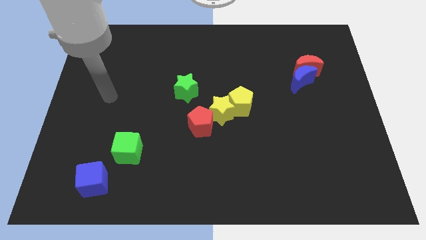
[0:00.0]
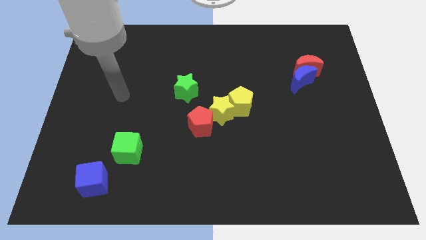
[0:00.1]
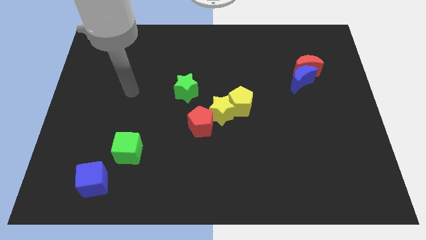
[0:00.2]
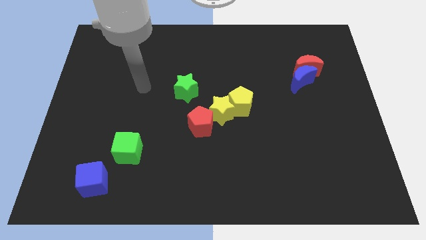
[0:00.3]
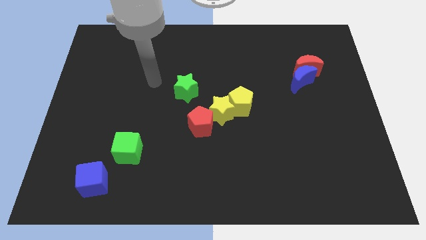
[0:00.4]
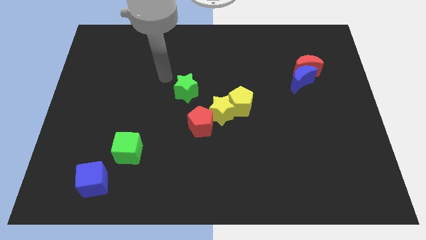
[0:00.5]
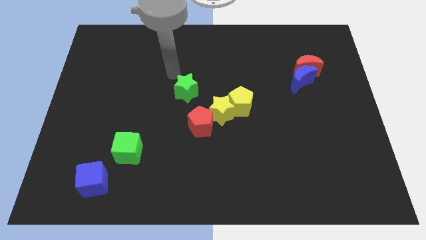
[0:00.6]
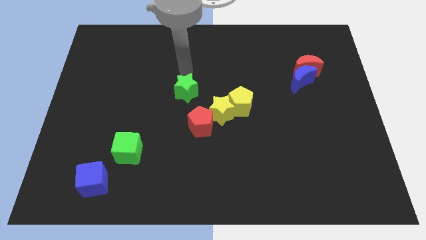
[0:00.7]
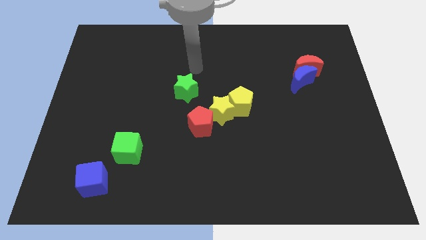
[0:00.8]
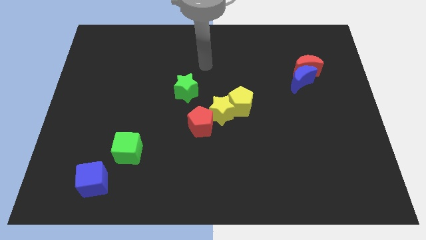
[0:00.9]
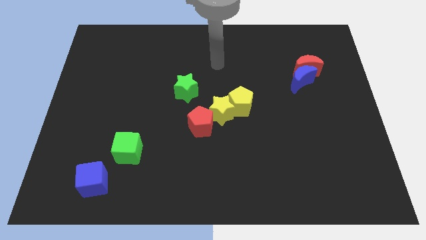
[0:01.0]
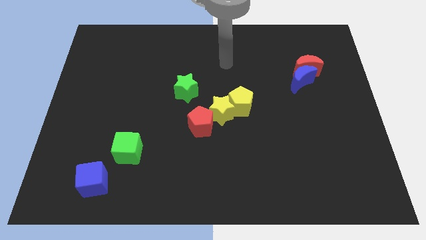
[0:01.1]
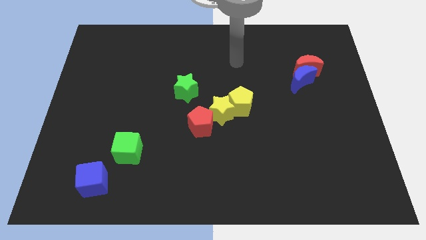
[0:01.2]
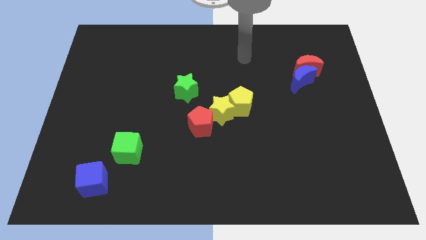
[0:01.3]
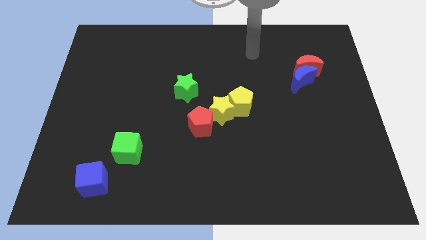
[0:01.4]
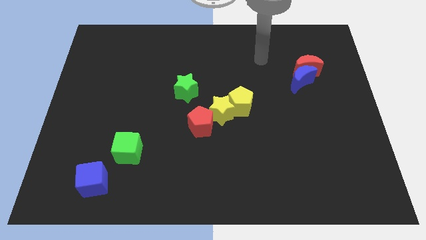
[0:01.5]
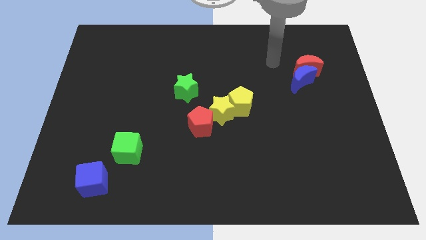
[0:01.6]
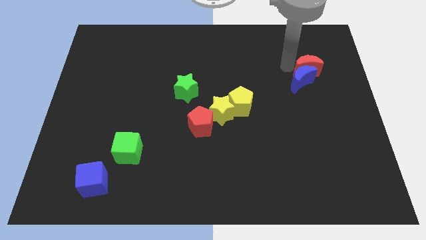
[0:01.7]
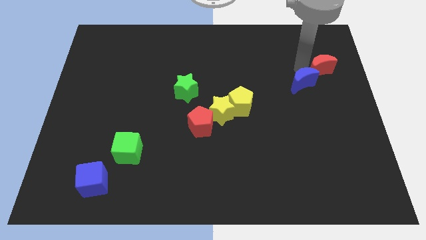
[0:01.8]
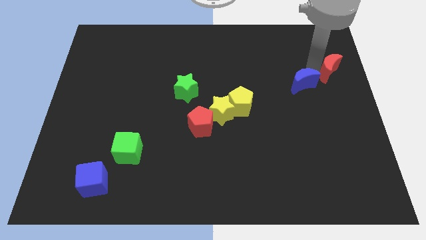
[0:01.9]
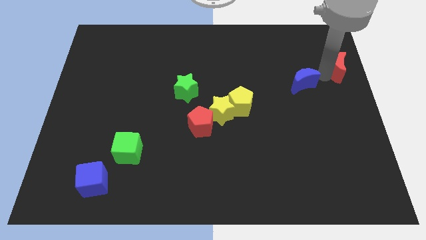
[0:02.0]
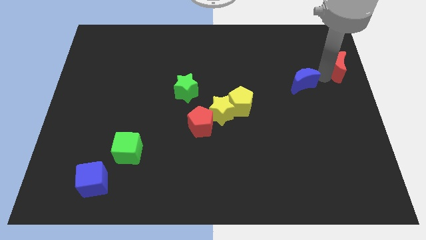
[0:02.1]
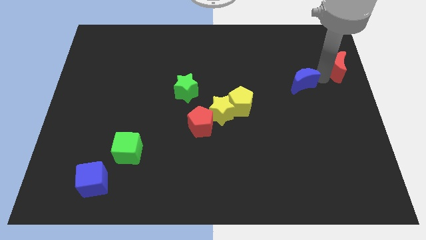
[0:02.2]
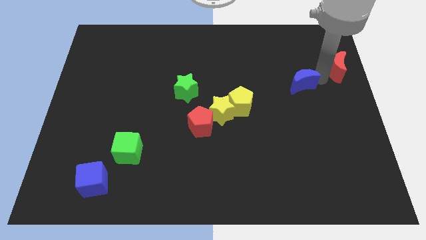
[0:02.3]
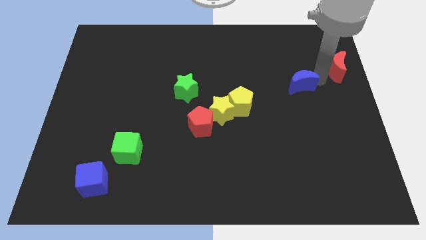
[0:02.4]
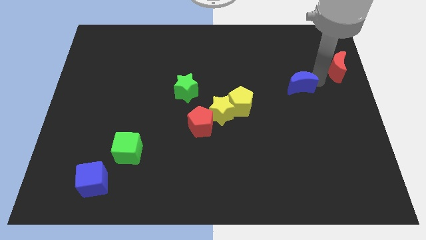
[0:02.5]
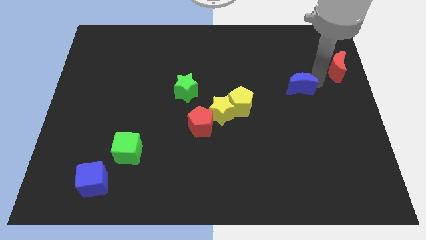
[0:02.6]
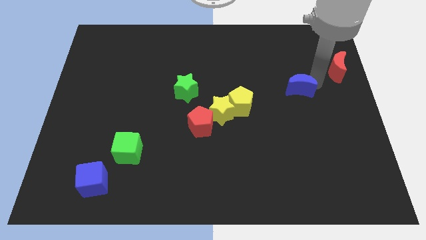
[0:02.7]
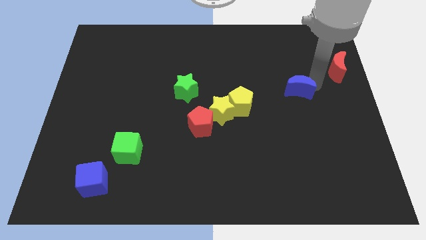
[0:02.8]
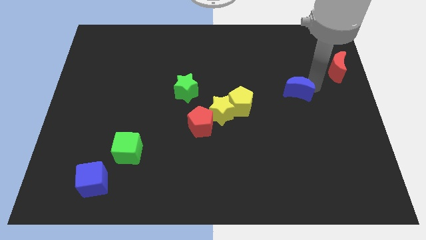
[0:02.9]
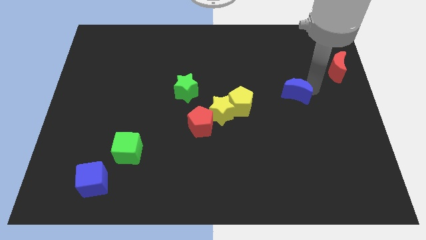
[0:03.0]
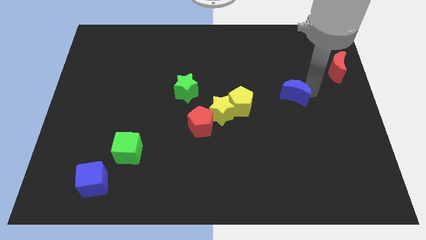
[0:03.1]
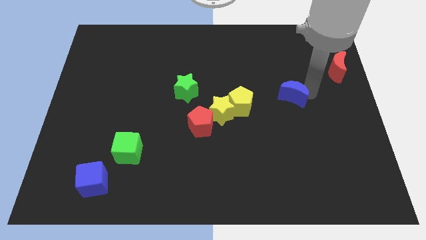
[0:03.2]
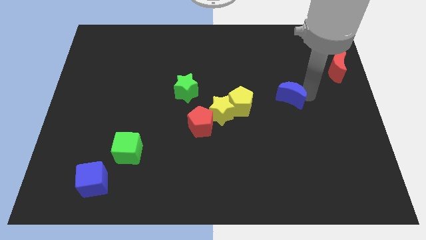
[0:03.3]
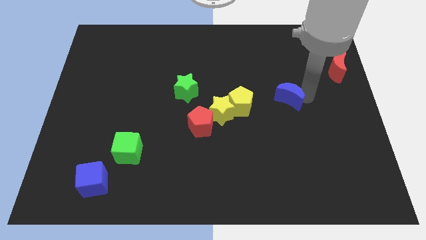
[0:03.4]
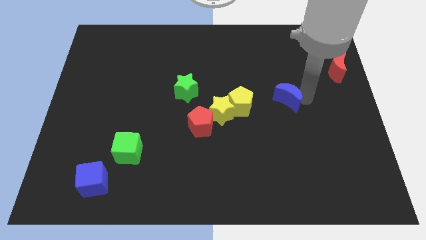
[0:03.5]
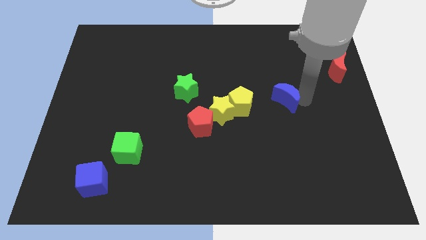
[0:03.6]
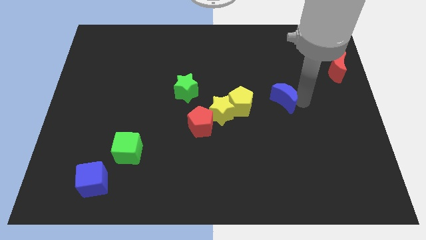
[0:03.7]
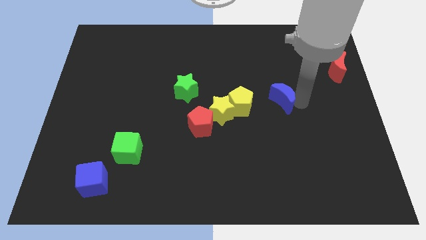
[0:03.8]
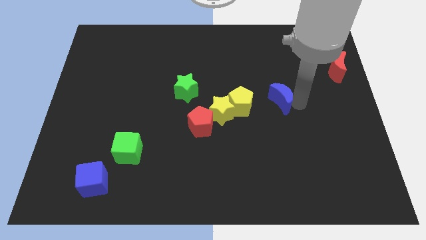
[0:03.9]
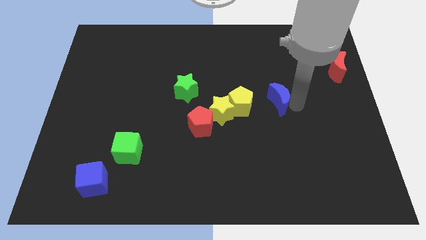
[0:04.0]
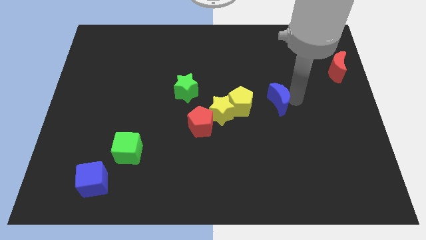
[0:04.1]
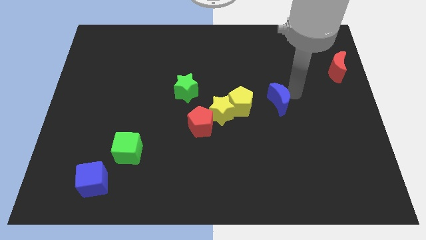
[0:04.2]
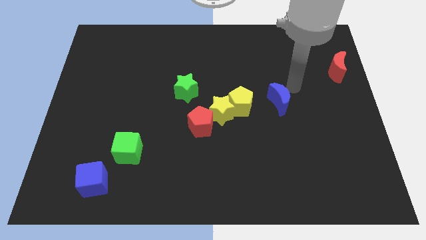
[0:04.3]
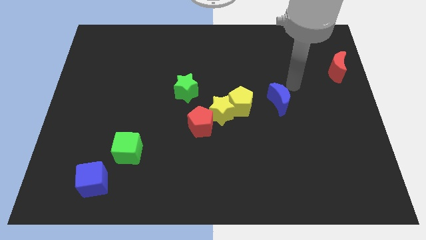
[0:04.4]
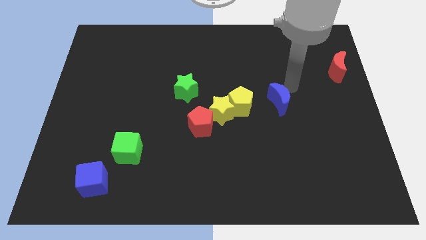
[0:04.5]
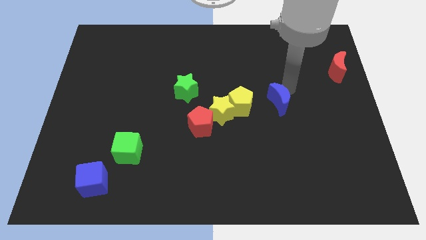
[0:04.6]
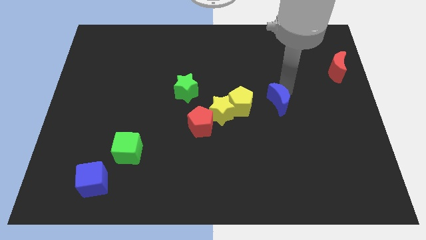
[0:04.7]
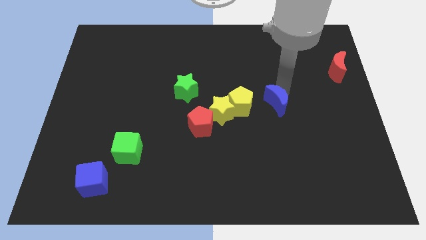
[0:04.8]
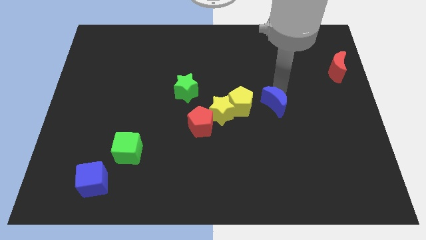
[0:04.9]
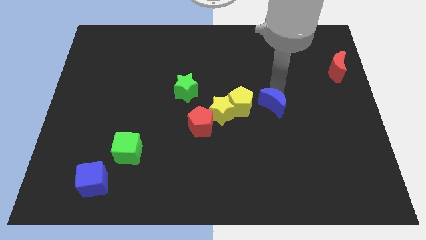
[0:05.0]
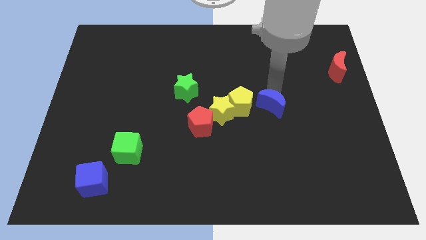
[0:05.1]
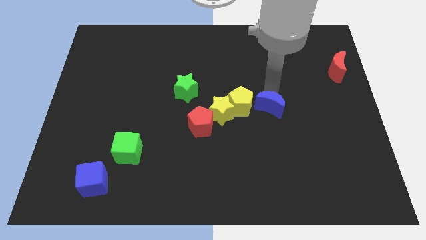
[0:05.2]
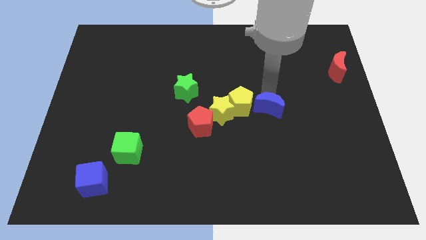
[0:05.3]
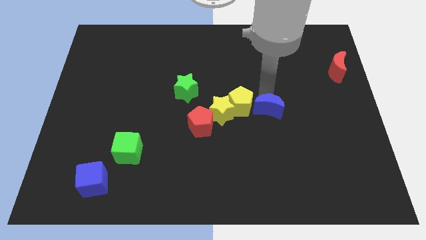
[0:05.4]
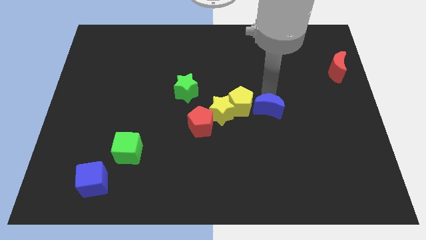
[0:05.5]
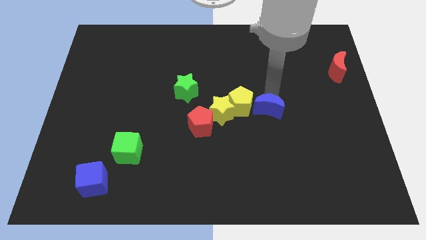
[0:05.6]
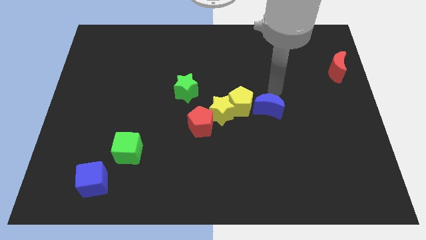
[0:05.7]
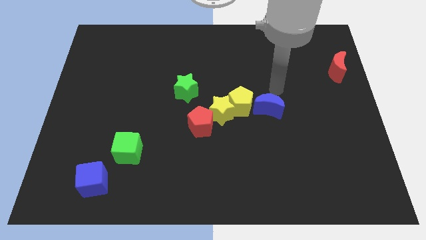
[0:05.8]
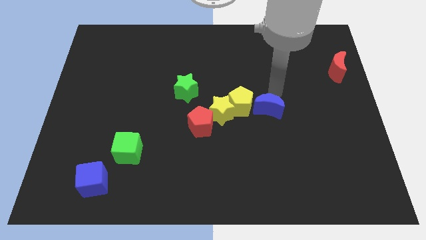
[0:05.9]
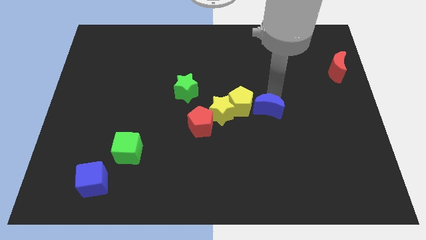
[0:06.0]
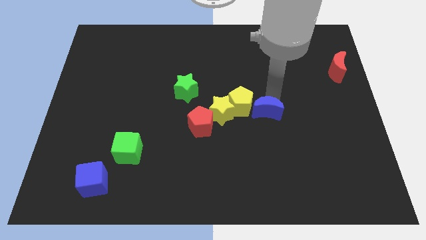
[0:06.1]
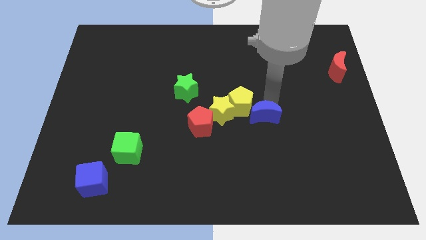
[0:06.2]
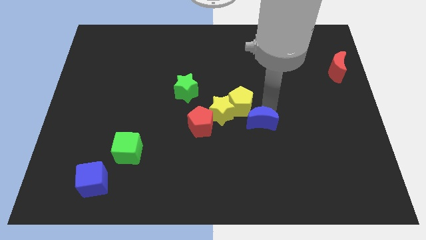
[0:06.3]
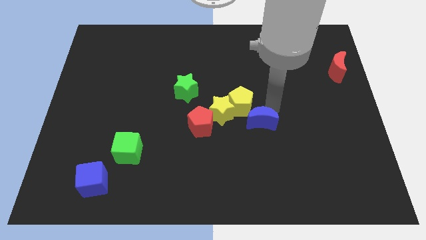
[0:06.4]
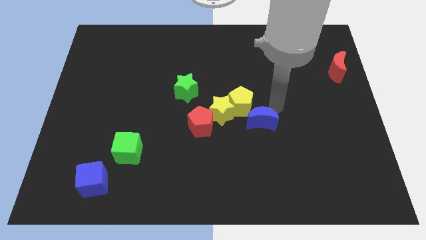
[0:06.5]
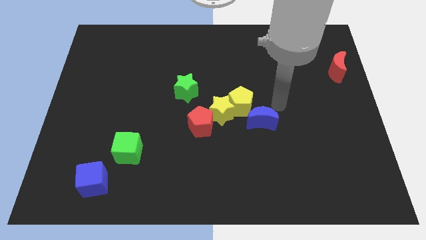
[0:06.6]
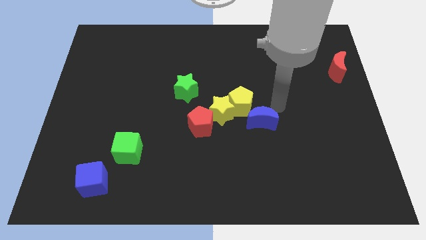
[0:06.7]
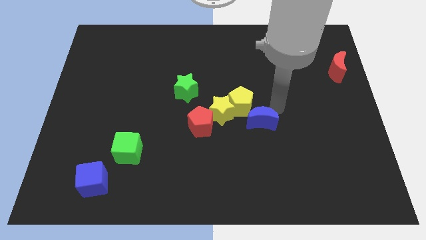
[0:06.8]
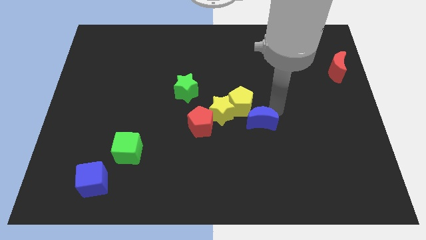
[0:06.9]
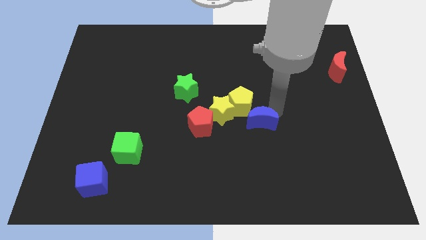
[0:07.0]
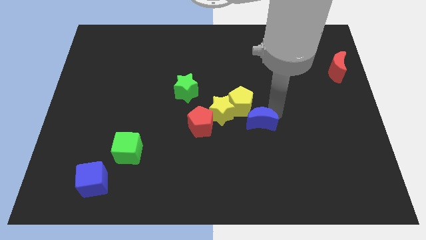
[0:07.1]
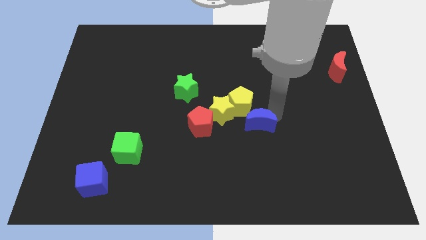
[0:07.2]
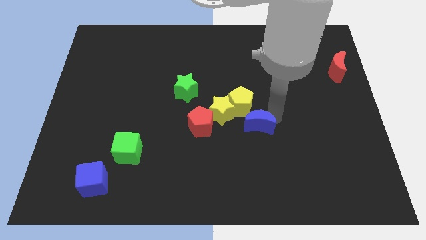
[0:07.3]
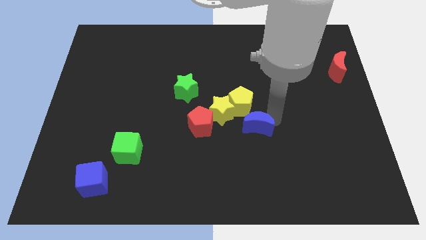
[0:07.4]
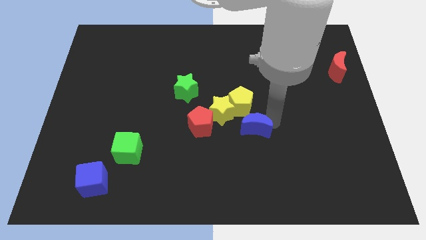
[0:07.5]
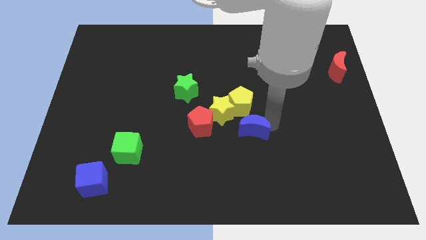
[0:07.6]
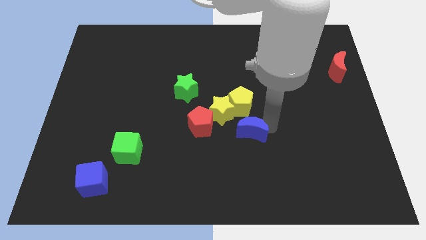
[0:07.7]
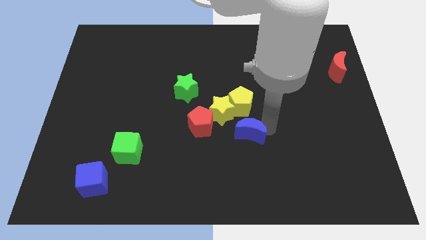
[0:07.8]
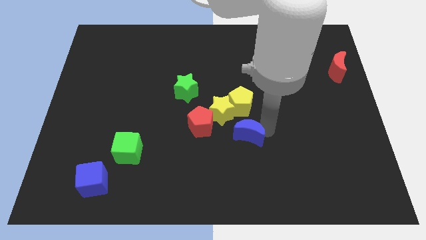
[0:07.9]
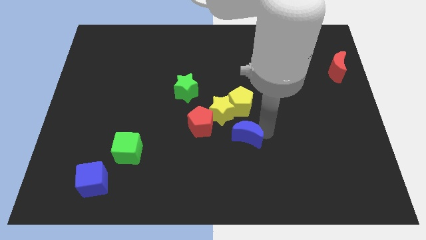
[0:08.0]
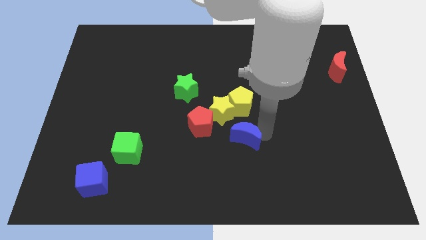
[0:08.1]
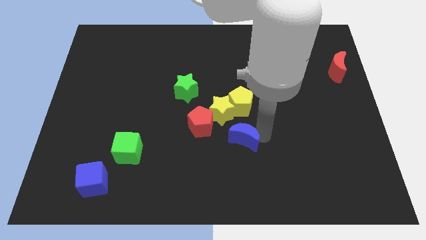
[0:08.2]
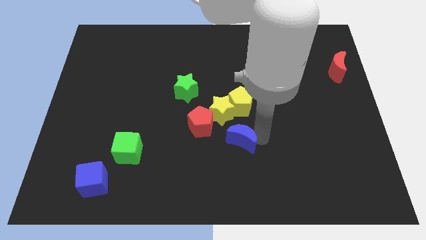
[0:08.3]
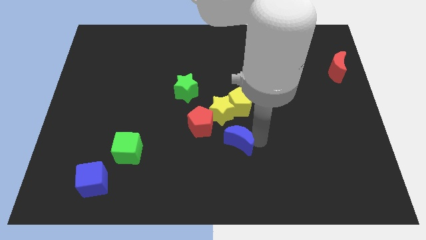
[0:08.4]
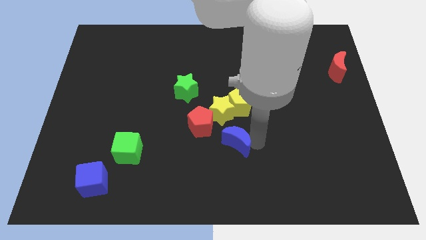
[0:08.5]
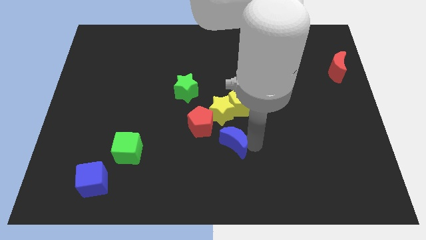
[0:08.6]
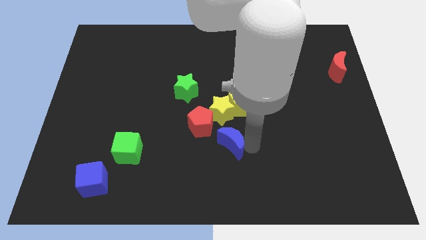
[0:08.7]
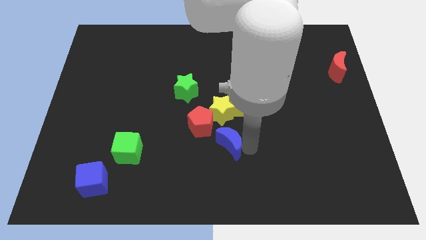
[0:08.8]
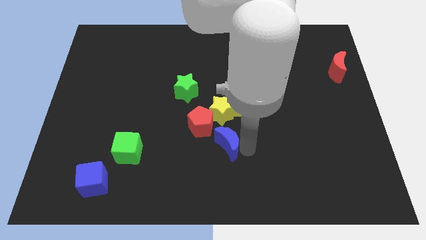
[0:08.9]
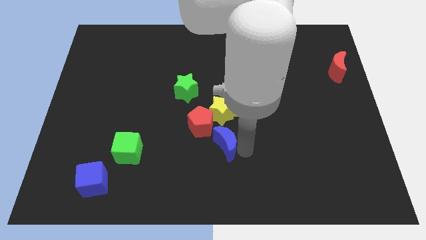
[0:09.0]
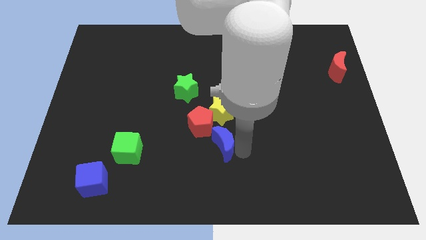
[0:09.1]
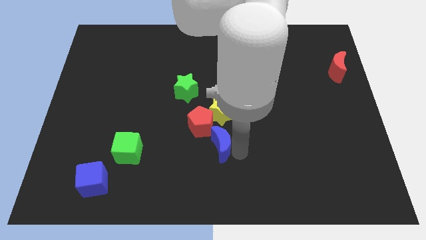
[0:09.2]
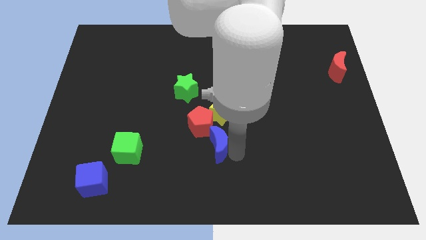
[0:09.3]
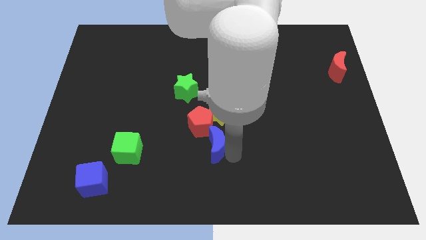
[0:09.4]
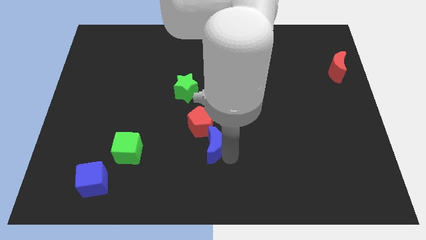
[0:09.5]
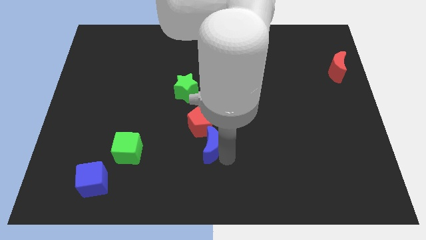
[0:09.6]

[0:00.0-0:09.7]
push the blue moon to the bottom left of the yellow star
